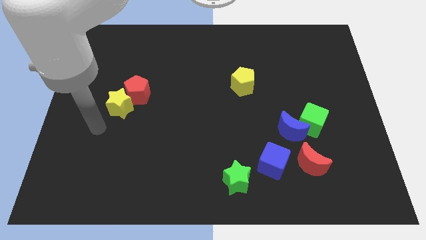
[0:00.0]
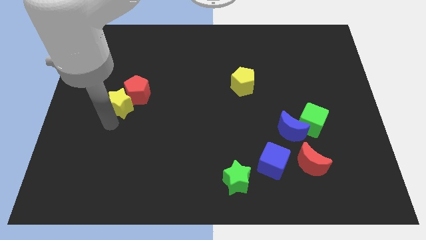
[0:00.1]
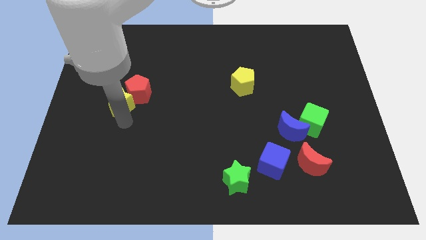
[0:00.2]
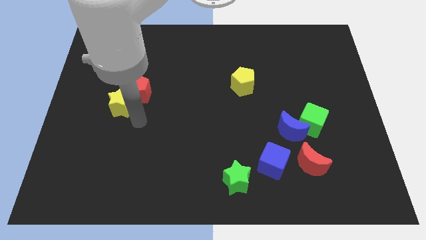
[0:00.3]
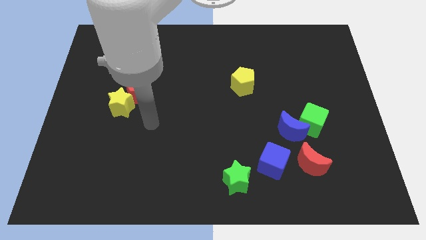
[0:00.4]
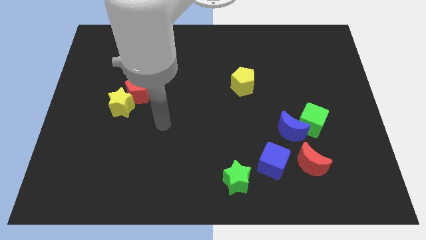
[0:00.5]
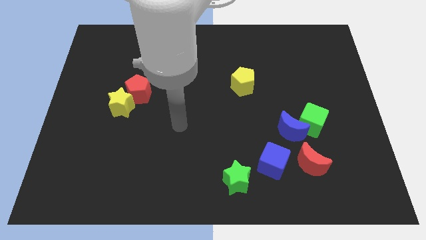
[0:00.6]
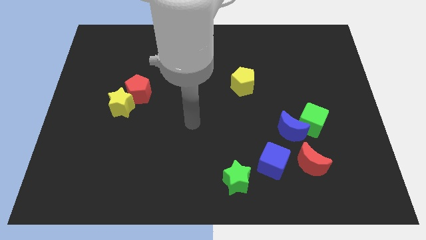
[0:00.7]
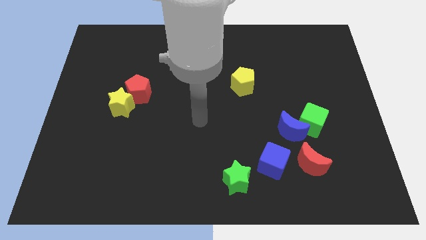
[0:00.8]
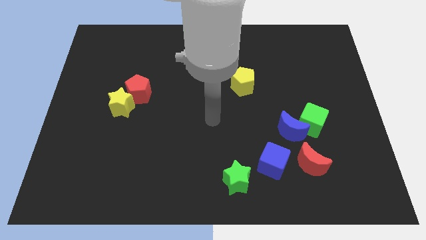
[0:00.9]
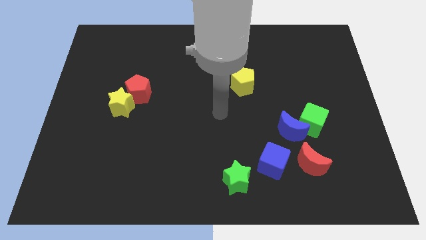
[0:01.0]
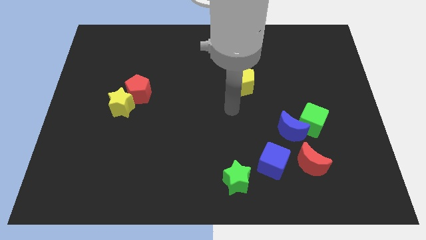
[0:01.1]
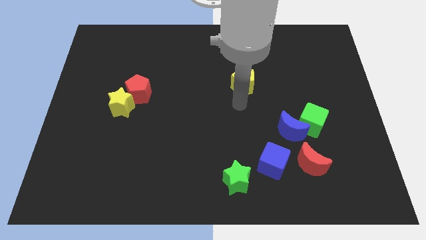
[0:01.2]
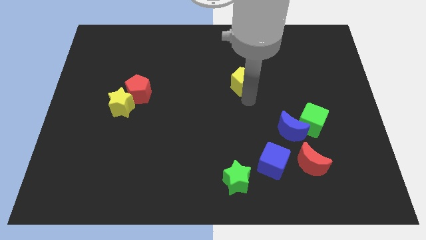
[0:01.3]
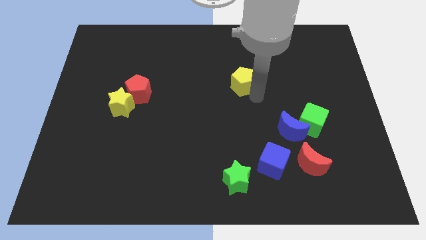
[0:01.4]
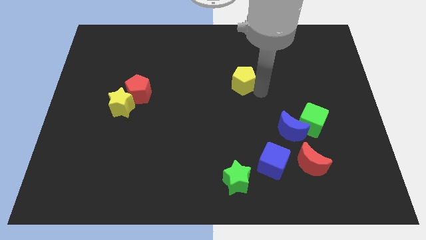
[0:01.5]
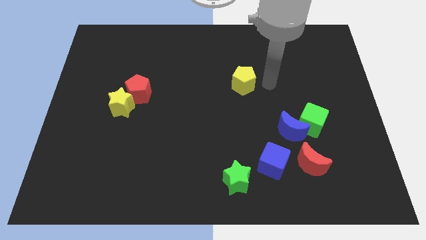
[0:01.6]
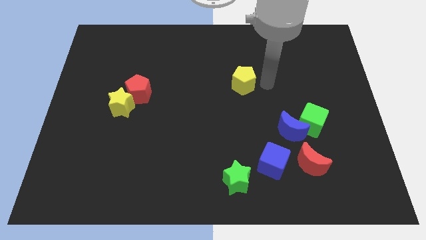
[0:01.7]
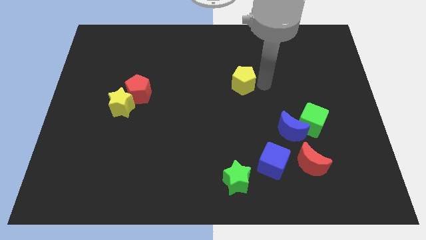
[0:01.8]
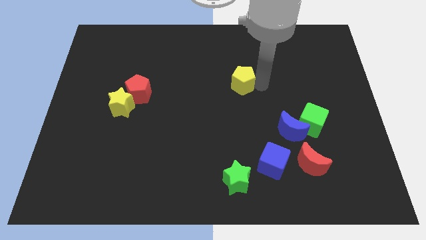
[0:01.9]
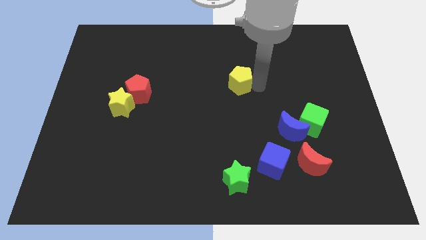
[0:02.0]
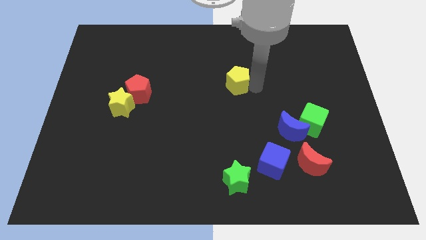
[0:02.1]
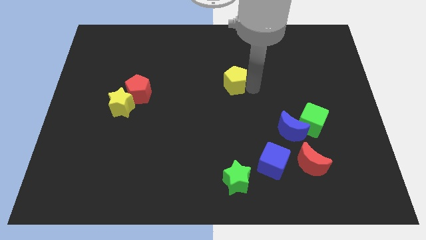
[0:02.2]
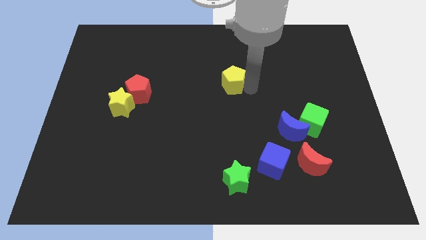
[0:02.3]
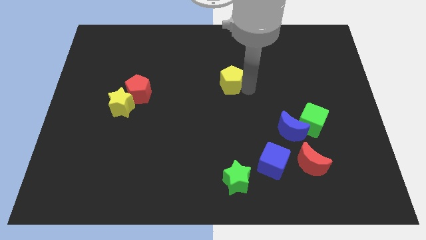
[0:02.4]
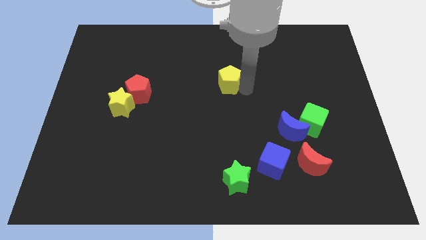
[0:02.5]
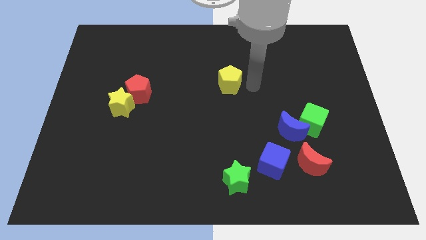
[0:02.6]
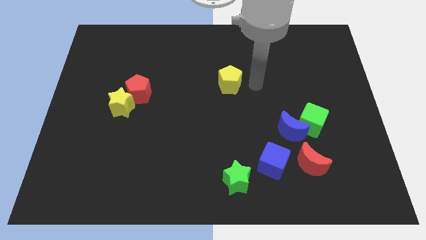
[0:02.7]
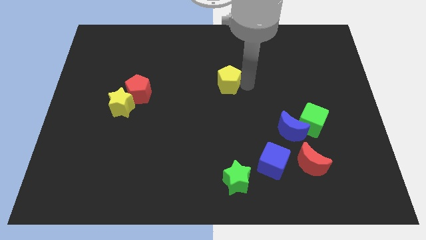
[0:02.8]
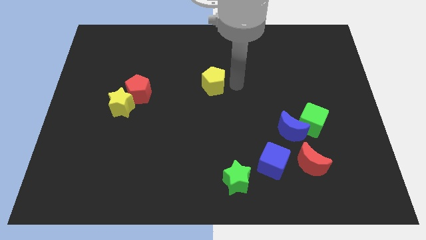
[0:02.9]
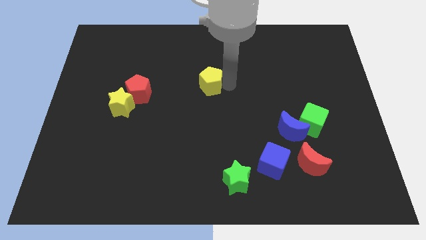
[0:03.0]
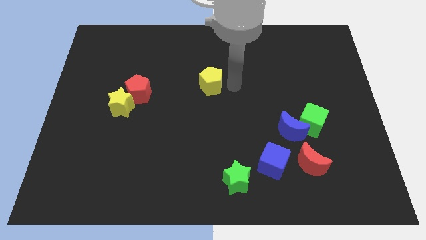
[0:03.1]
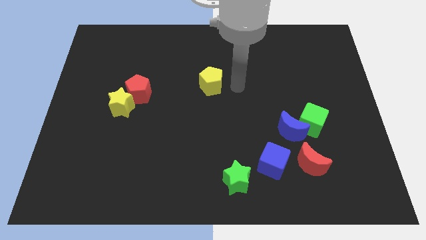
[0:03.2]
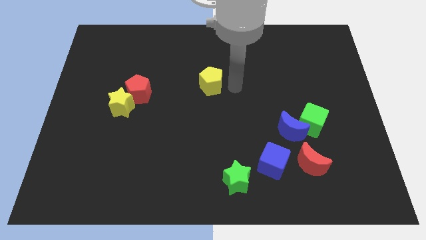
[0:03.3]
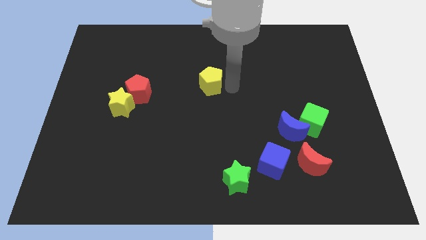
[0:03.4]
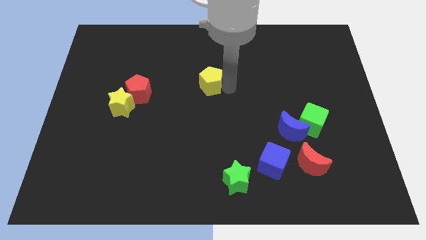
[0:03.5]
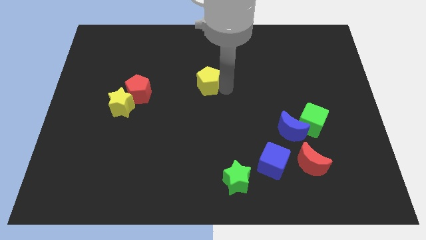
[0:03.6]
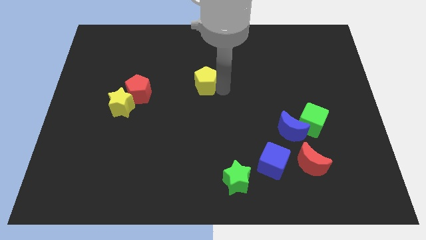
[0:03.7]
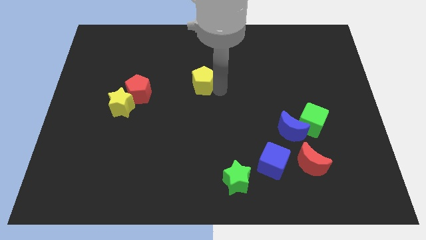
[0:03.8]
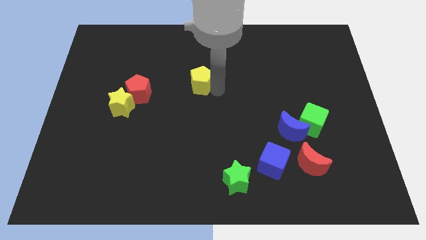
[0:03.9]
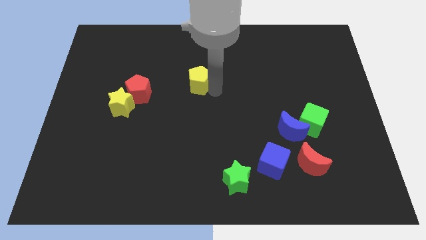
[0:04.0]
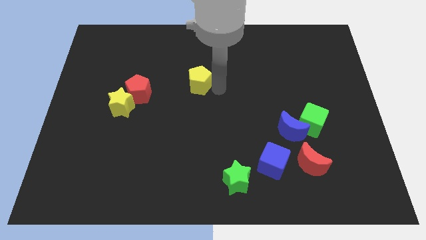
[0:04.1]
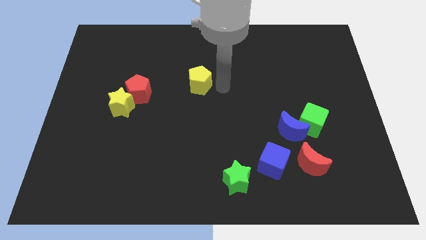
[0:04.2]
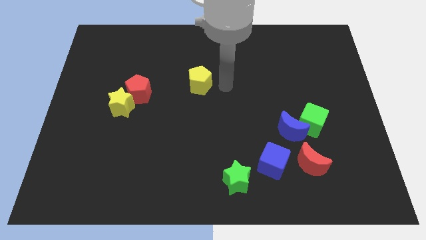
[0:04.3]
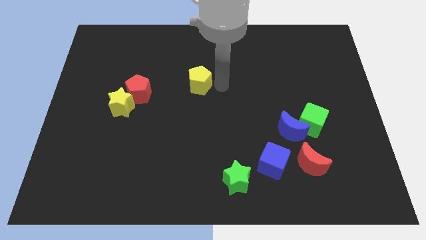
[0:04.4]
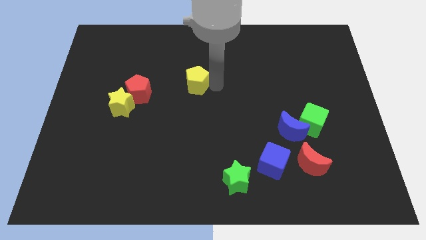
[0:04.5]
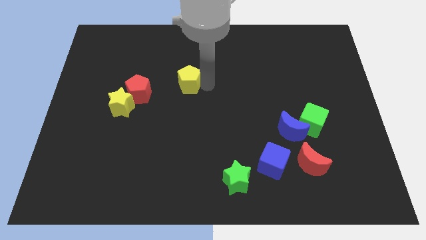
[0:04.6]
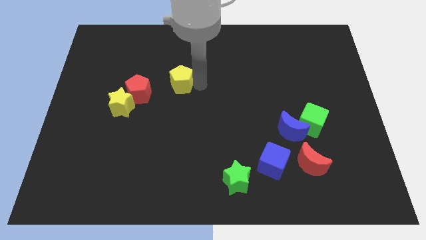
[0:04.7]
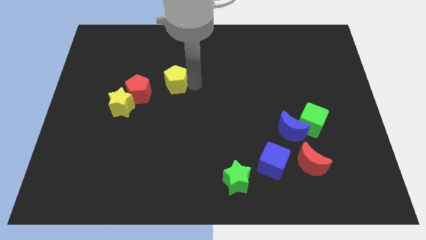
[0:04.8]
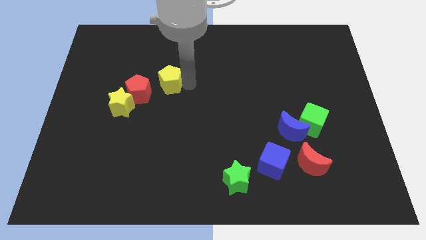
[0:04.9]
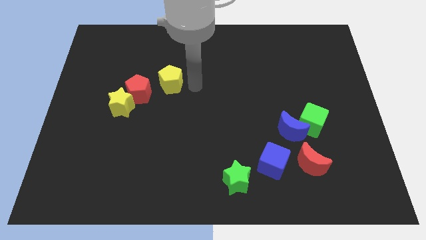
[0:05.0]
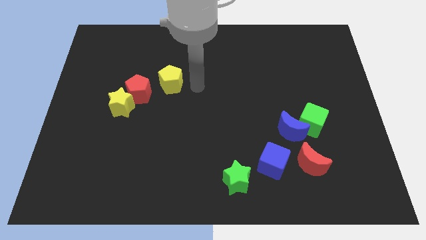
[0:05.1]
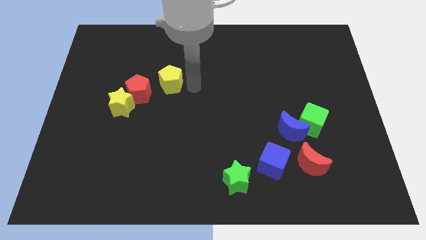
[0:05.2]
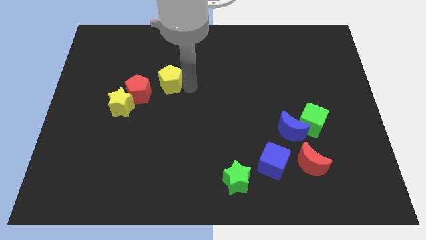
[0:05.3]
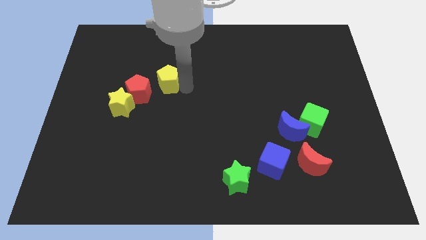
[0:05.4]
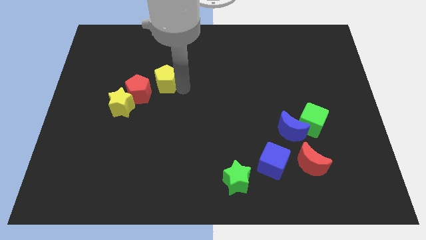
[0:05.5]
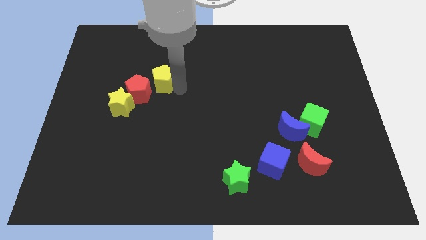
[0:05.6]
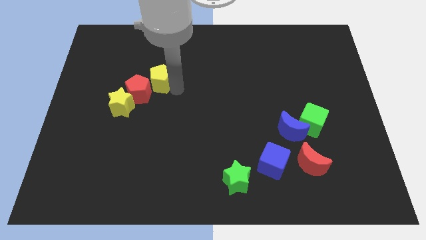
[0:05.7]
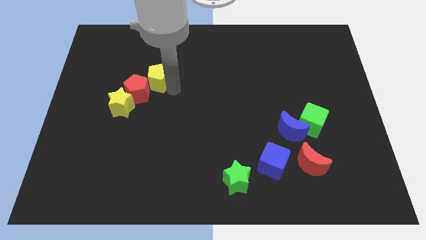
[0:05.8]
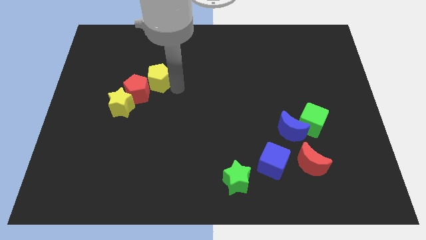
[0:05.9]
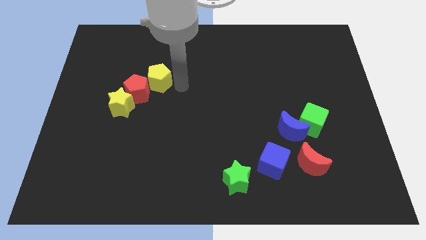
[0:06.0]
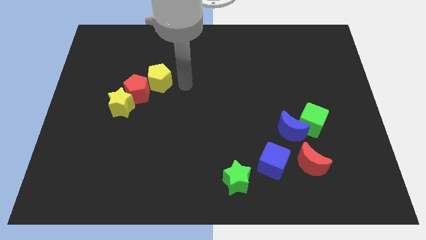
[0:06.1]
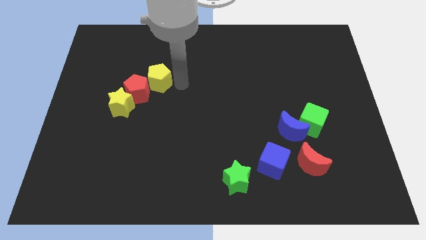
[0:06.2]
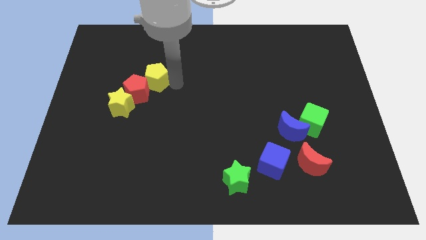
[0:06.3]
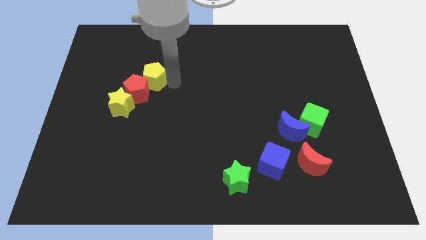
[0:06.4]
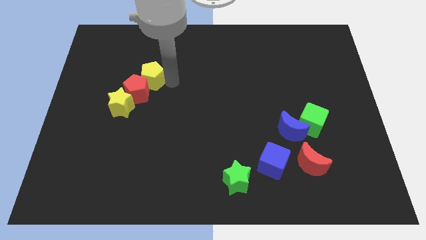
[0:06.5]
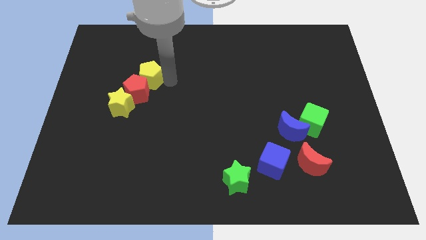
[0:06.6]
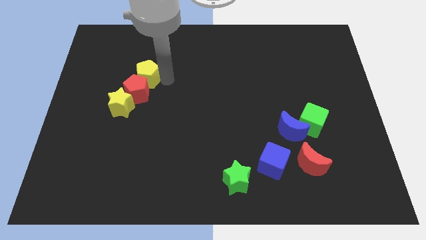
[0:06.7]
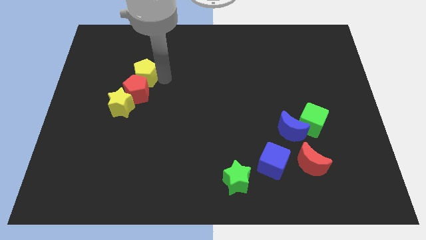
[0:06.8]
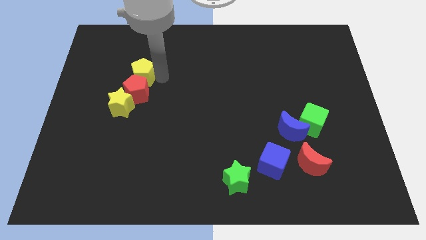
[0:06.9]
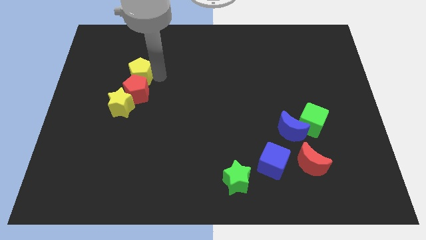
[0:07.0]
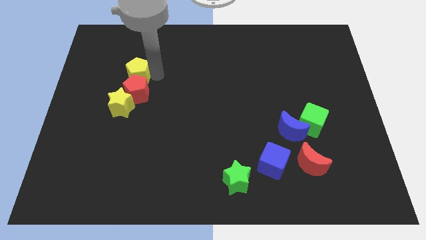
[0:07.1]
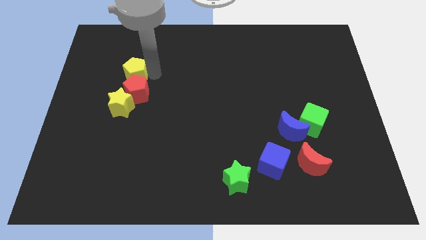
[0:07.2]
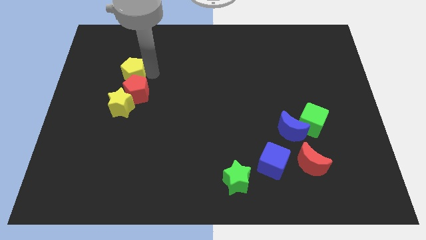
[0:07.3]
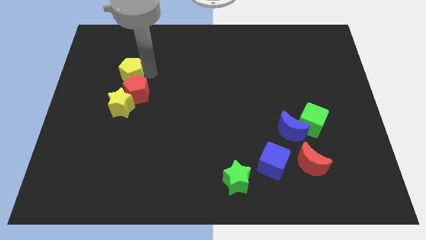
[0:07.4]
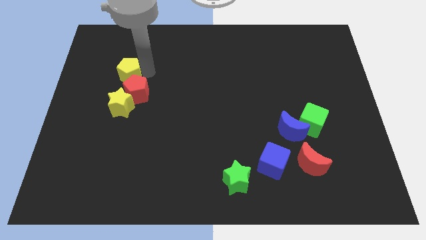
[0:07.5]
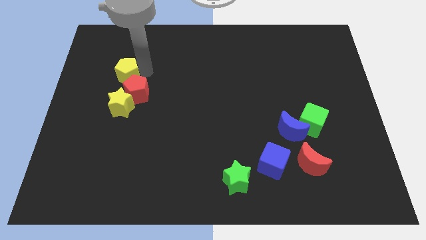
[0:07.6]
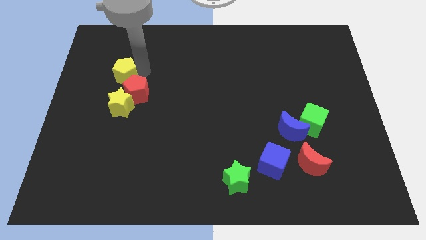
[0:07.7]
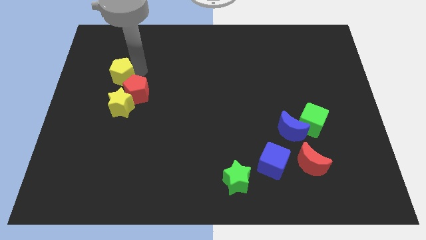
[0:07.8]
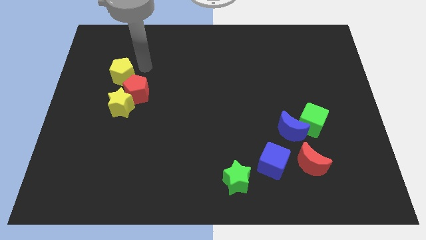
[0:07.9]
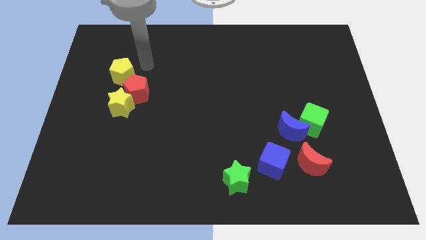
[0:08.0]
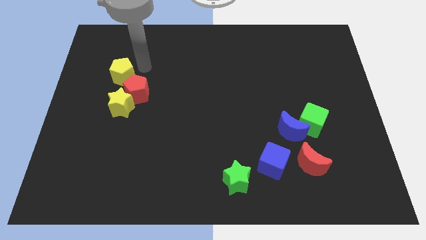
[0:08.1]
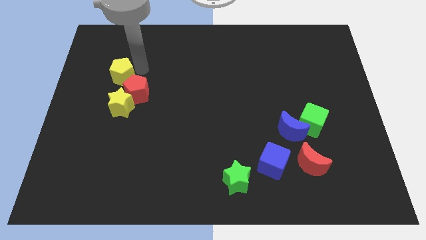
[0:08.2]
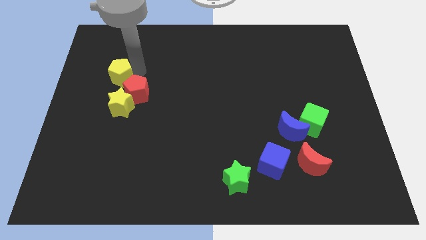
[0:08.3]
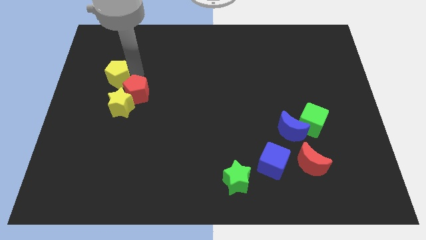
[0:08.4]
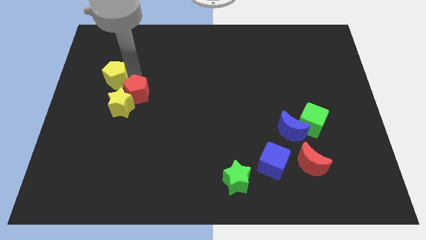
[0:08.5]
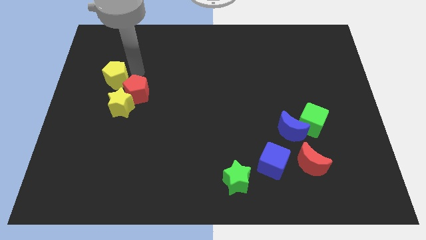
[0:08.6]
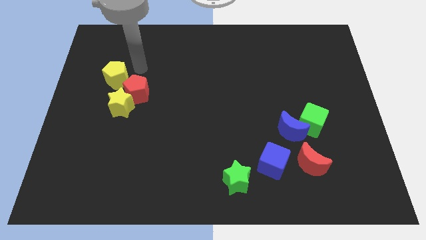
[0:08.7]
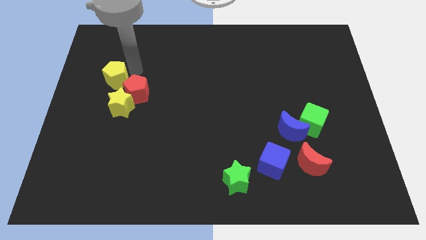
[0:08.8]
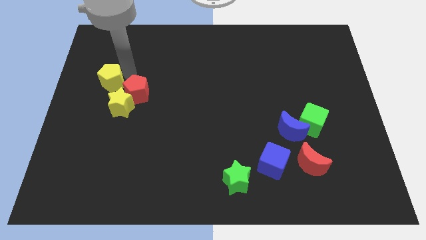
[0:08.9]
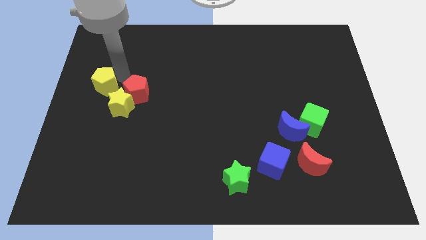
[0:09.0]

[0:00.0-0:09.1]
push the yellow pentagon to the center left
